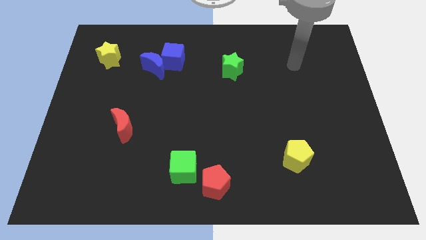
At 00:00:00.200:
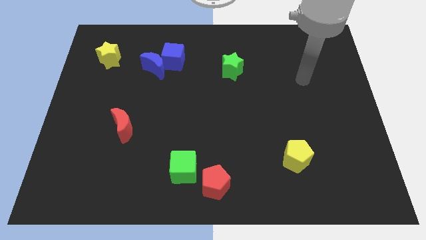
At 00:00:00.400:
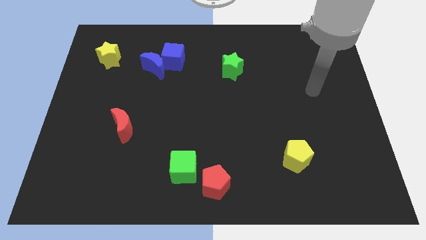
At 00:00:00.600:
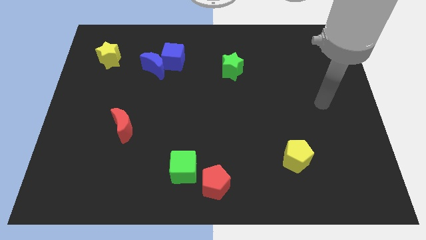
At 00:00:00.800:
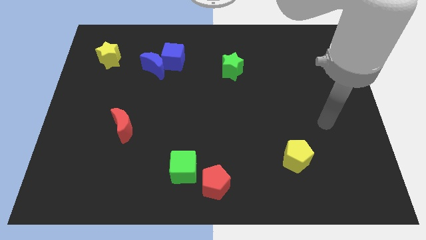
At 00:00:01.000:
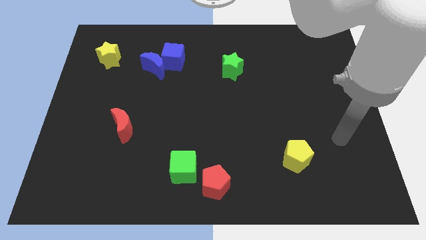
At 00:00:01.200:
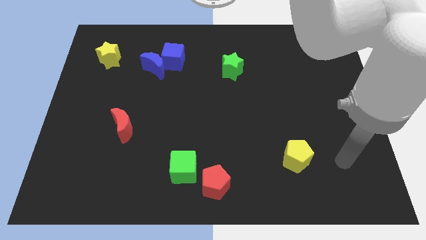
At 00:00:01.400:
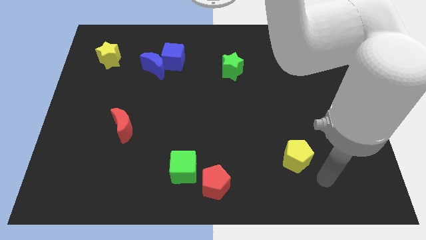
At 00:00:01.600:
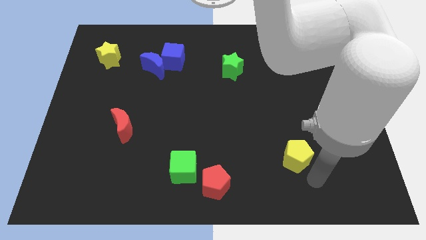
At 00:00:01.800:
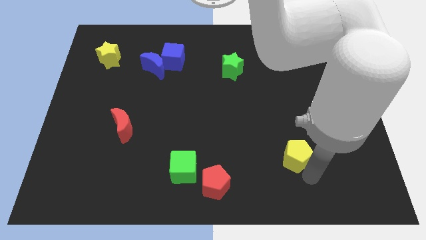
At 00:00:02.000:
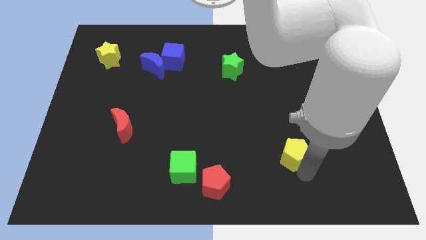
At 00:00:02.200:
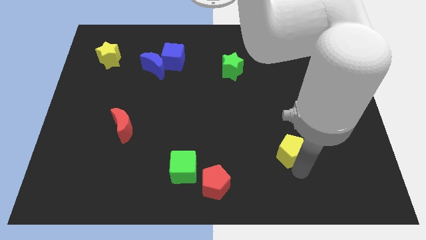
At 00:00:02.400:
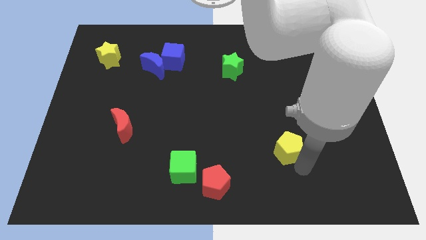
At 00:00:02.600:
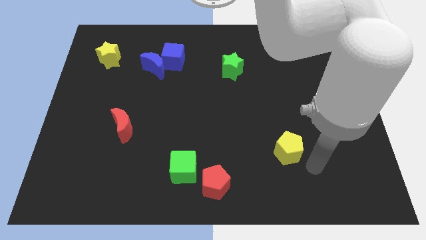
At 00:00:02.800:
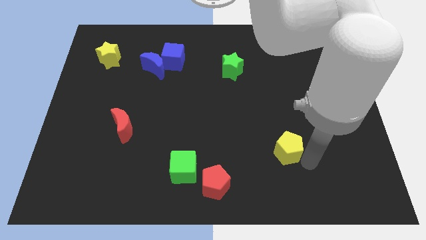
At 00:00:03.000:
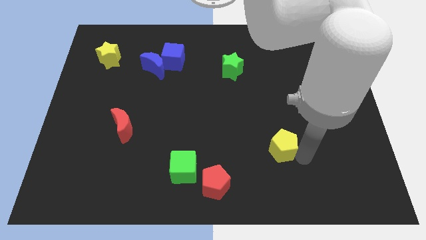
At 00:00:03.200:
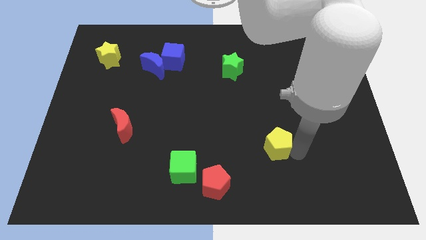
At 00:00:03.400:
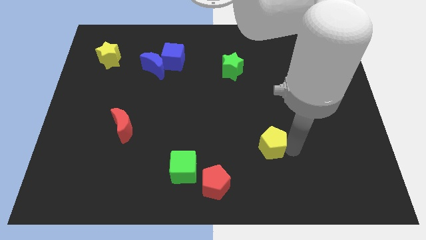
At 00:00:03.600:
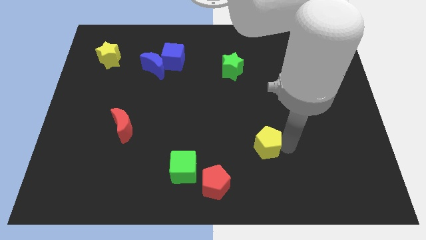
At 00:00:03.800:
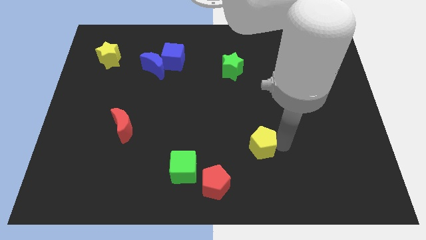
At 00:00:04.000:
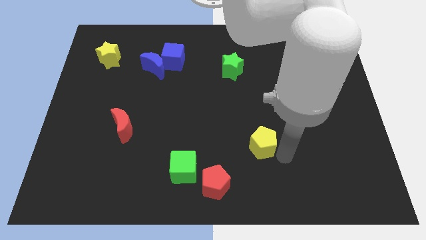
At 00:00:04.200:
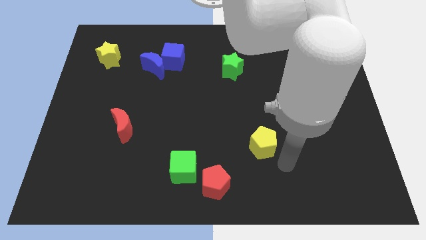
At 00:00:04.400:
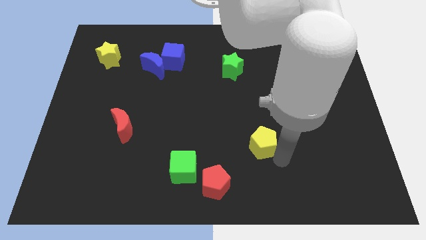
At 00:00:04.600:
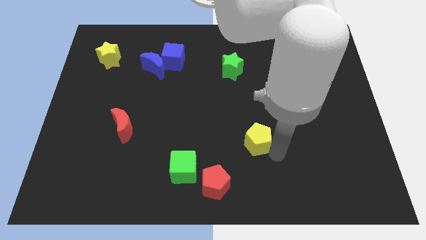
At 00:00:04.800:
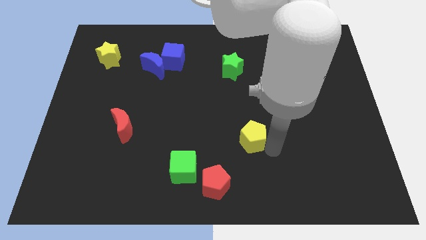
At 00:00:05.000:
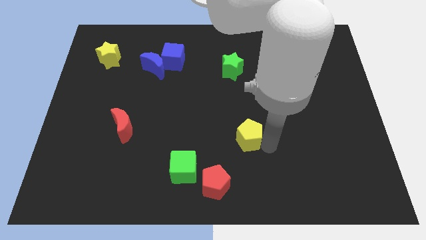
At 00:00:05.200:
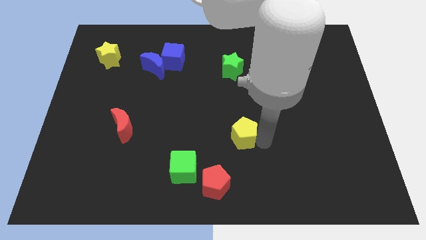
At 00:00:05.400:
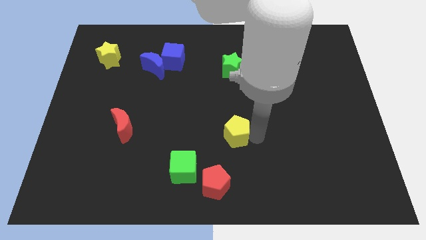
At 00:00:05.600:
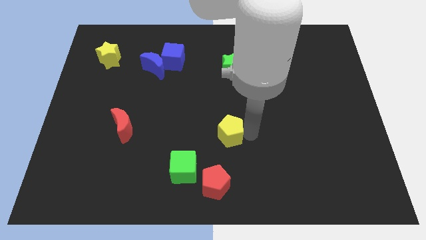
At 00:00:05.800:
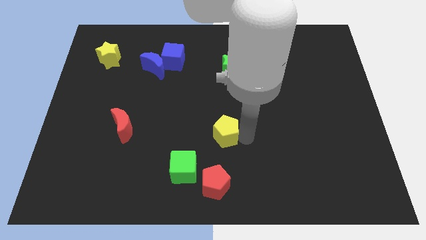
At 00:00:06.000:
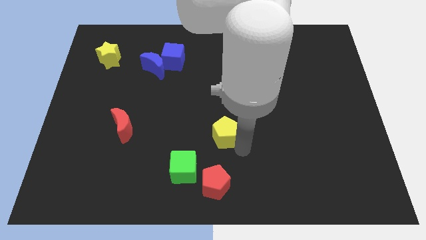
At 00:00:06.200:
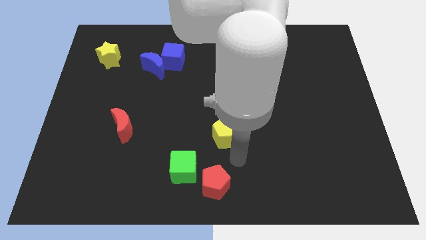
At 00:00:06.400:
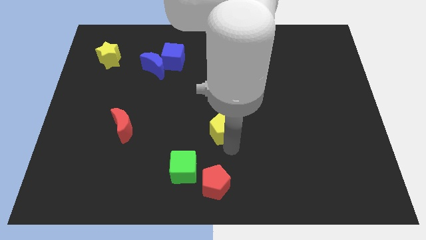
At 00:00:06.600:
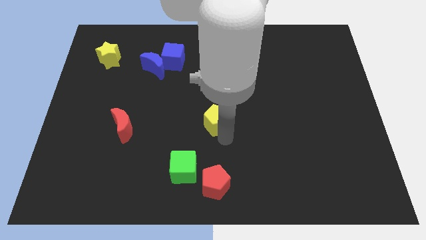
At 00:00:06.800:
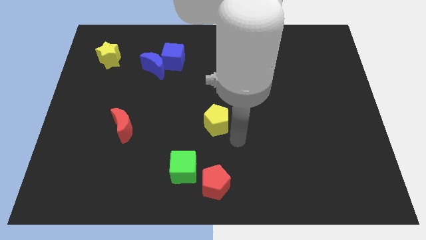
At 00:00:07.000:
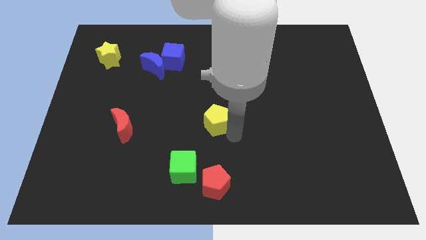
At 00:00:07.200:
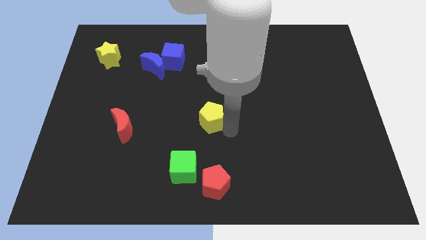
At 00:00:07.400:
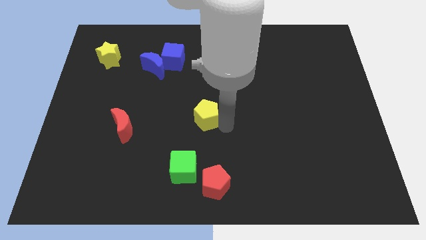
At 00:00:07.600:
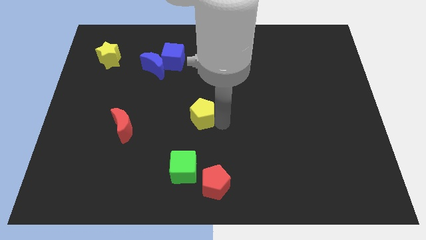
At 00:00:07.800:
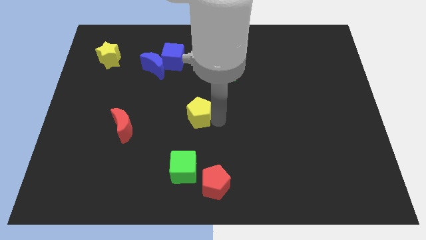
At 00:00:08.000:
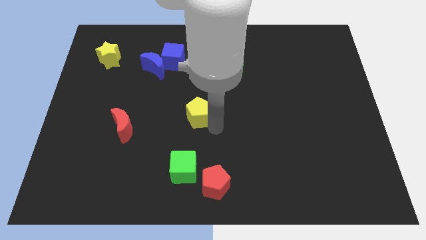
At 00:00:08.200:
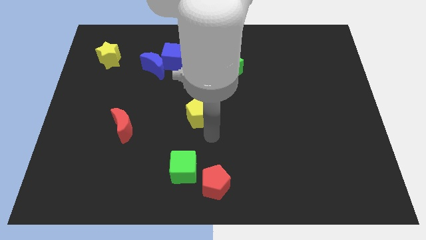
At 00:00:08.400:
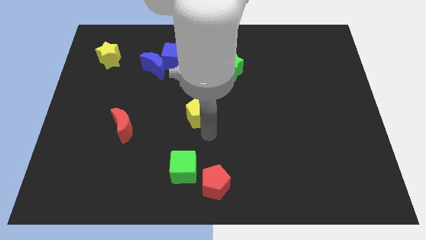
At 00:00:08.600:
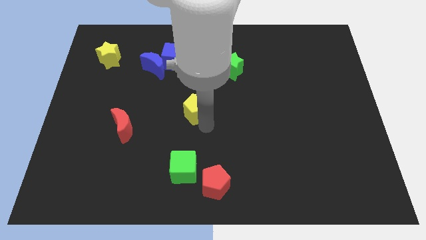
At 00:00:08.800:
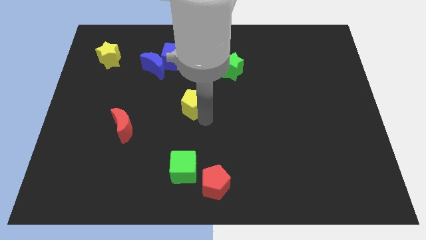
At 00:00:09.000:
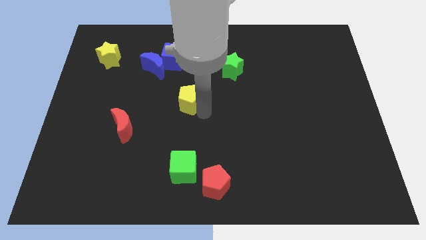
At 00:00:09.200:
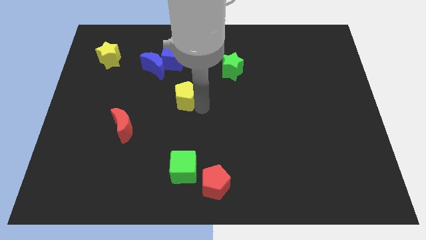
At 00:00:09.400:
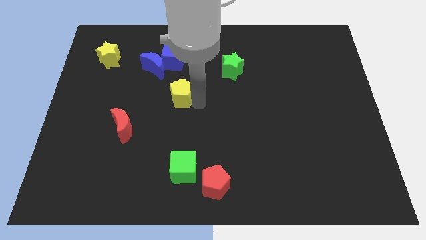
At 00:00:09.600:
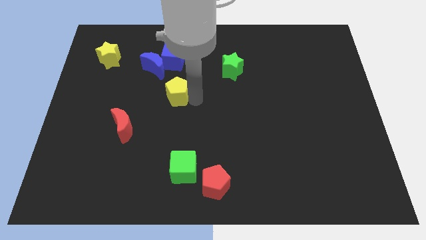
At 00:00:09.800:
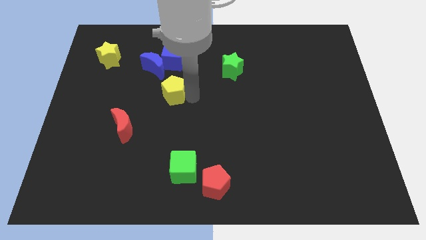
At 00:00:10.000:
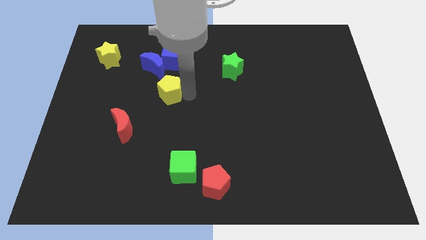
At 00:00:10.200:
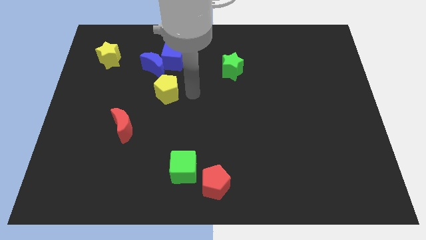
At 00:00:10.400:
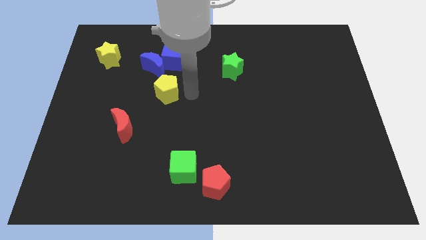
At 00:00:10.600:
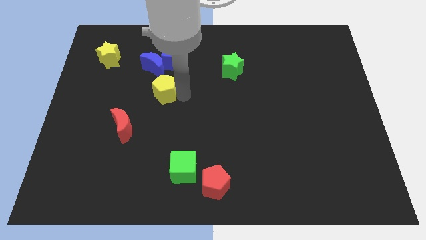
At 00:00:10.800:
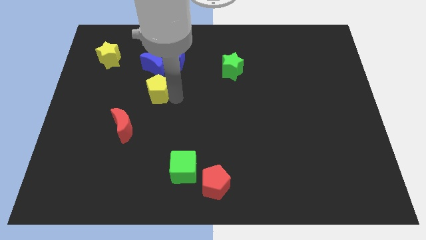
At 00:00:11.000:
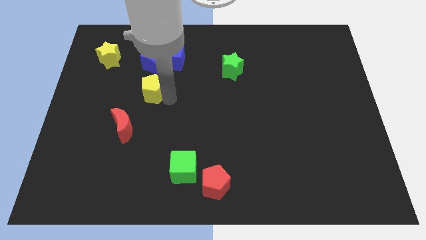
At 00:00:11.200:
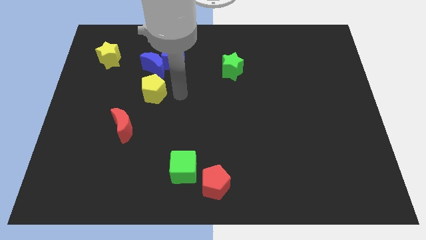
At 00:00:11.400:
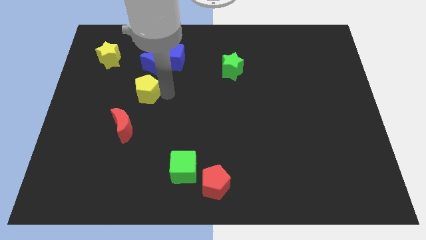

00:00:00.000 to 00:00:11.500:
put the yellow pentagon above the red moon

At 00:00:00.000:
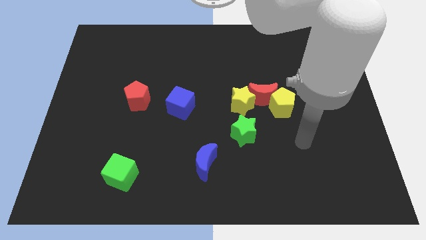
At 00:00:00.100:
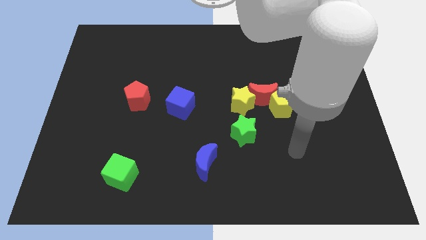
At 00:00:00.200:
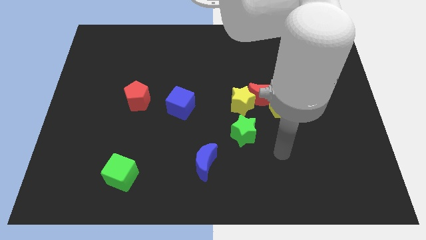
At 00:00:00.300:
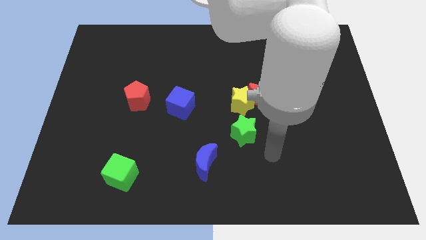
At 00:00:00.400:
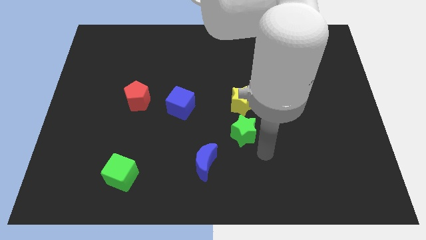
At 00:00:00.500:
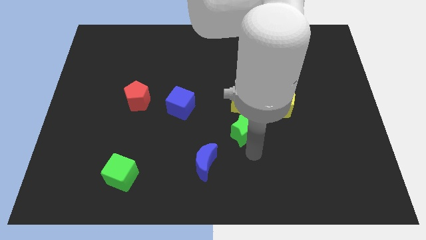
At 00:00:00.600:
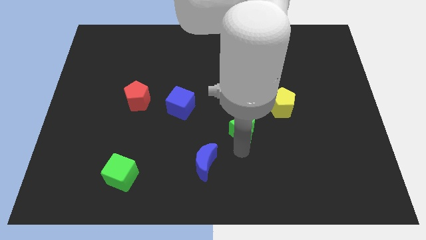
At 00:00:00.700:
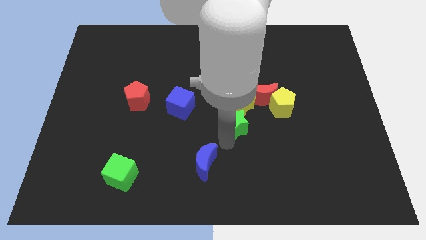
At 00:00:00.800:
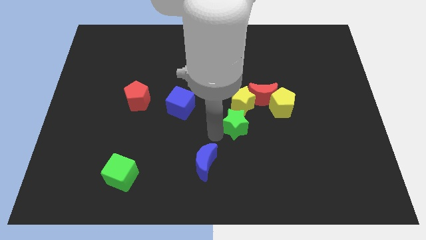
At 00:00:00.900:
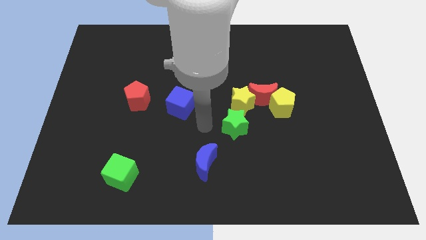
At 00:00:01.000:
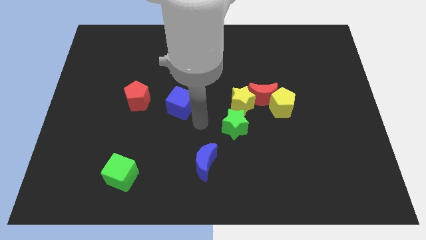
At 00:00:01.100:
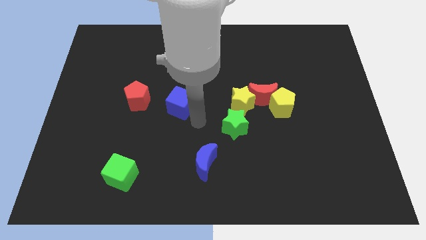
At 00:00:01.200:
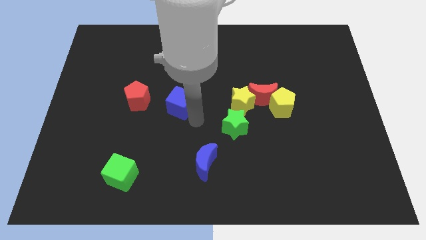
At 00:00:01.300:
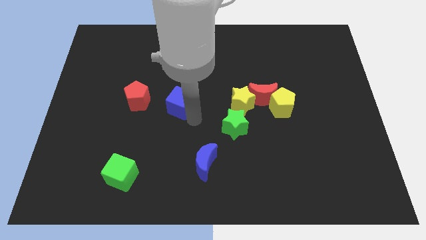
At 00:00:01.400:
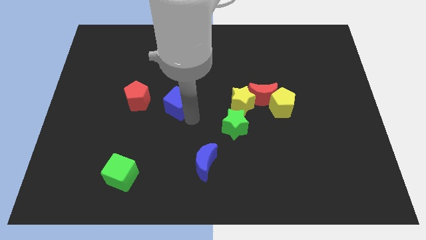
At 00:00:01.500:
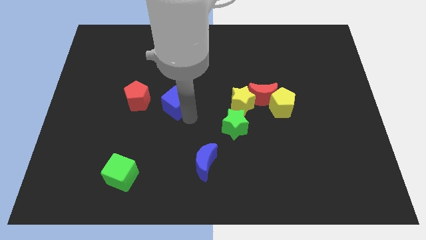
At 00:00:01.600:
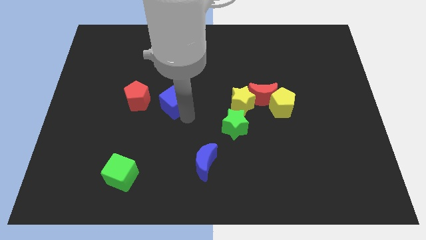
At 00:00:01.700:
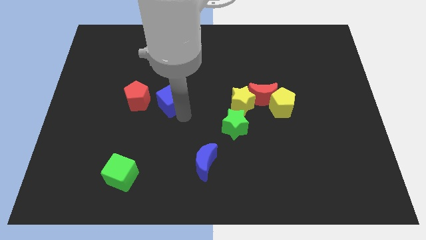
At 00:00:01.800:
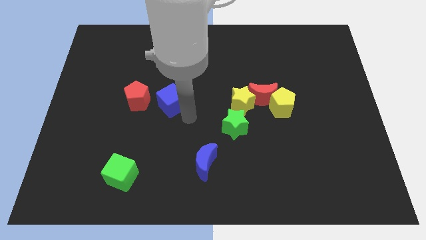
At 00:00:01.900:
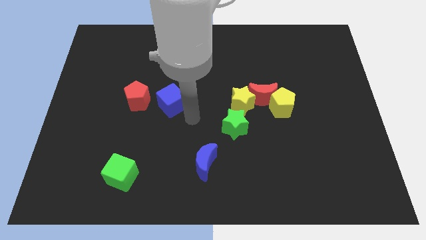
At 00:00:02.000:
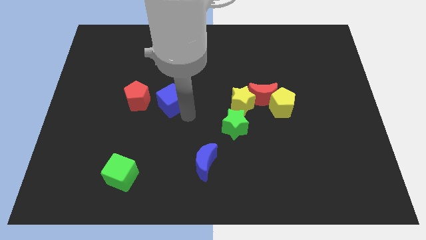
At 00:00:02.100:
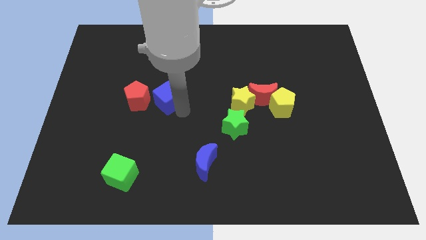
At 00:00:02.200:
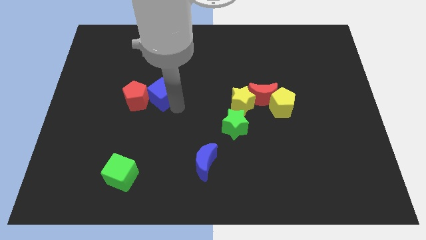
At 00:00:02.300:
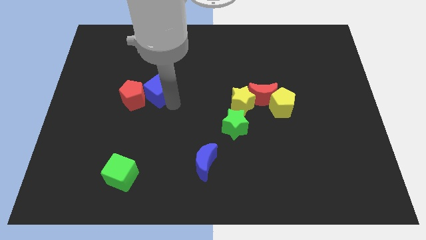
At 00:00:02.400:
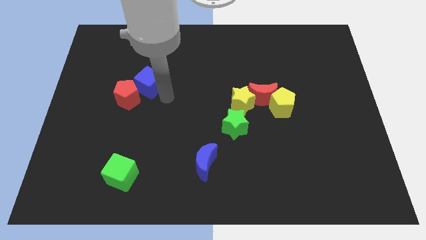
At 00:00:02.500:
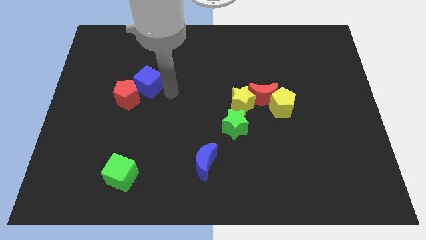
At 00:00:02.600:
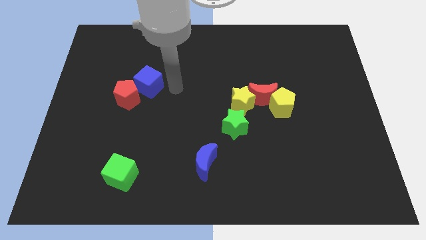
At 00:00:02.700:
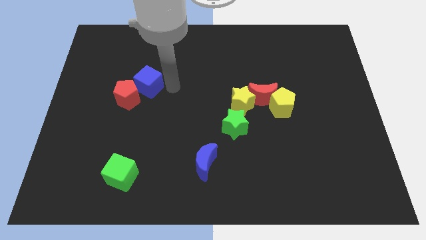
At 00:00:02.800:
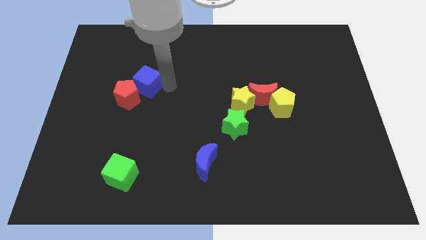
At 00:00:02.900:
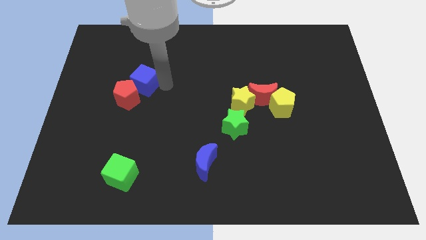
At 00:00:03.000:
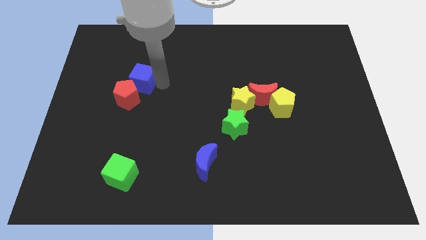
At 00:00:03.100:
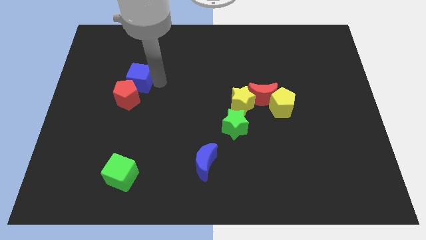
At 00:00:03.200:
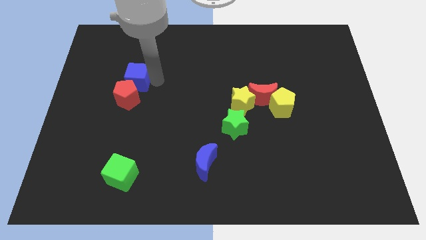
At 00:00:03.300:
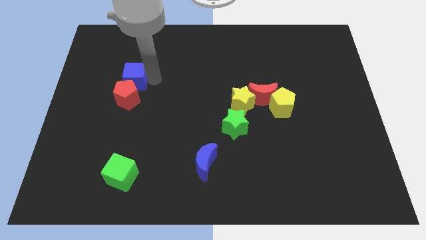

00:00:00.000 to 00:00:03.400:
push the blue cube to the top left side of the red pentagon
